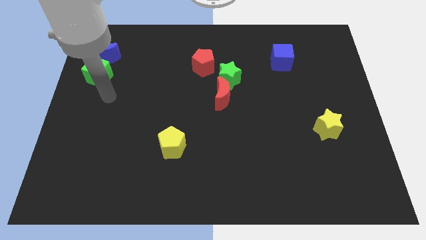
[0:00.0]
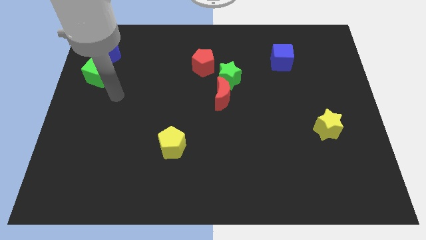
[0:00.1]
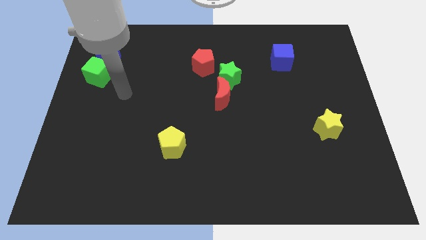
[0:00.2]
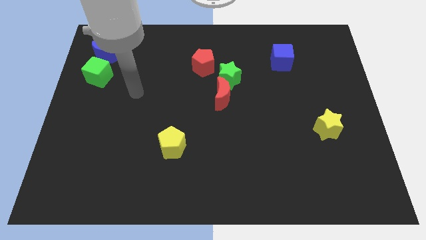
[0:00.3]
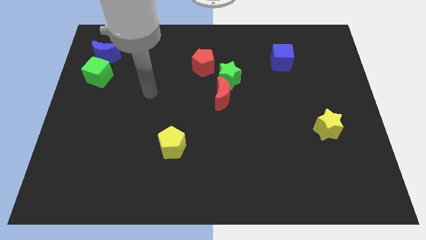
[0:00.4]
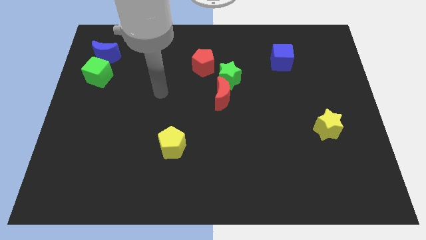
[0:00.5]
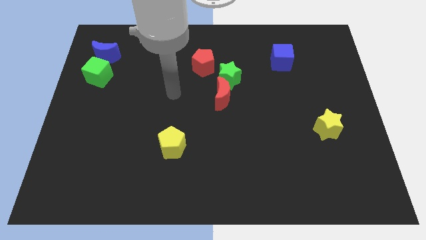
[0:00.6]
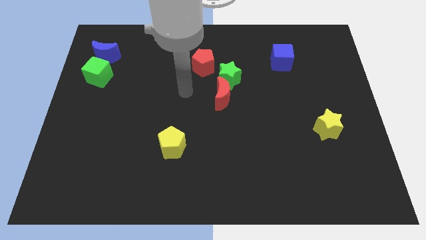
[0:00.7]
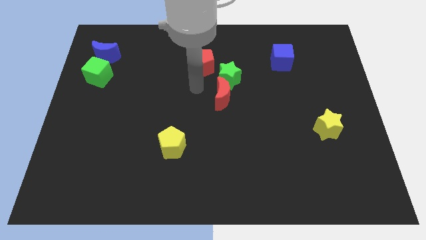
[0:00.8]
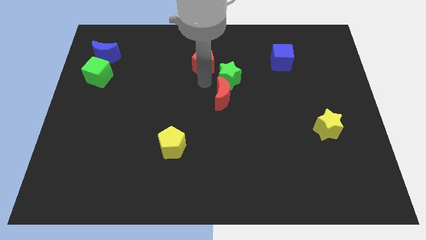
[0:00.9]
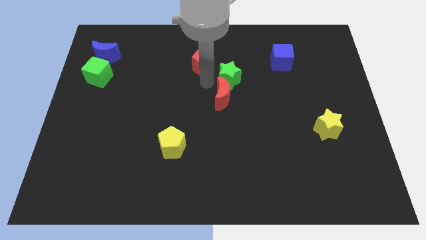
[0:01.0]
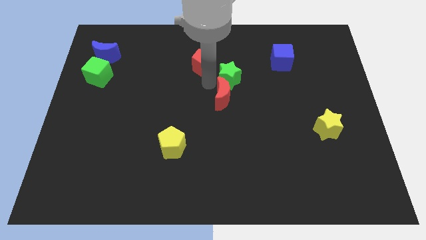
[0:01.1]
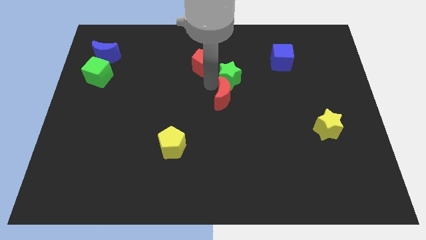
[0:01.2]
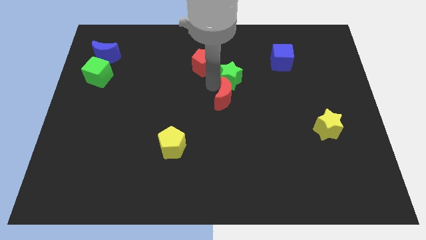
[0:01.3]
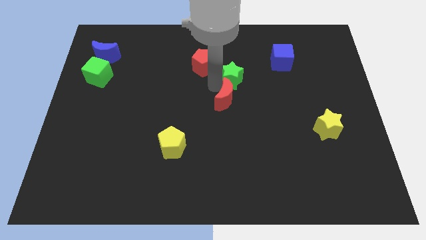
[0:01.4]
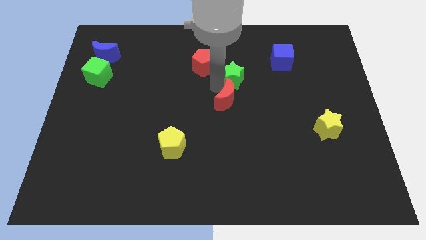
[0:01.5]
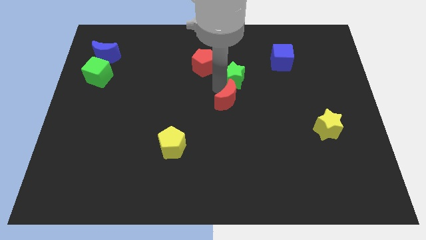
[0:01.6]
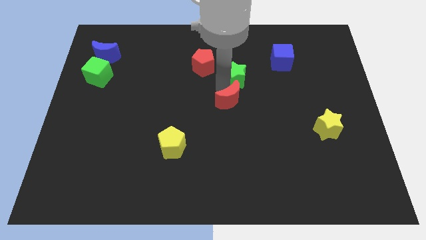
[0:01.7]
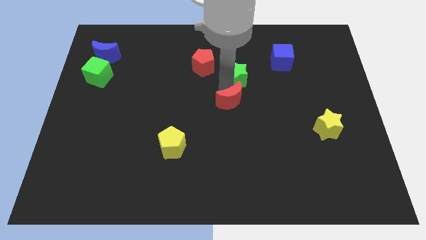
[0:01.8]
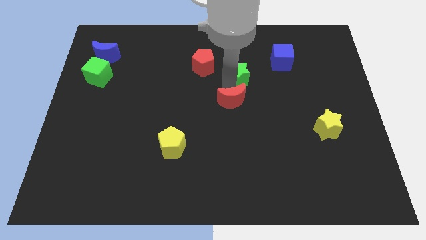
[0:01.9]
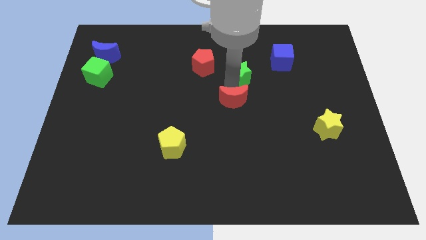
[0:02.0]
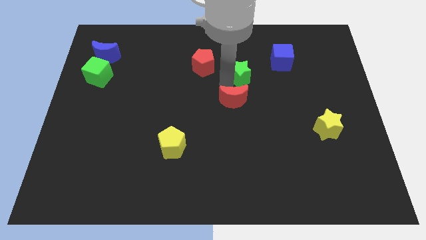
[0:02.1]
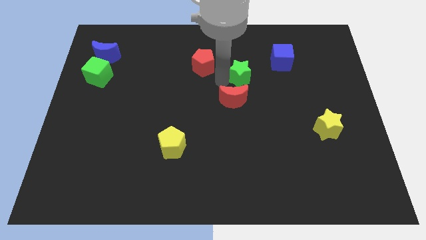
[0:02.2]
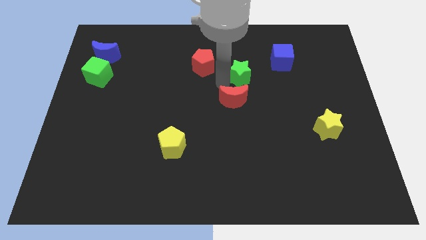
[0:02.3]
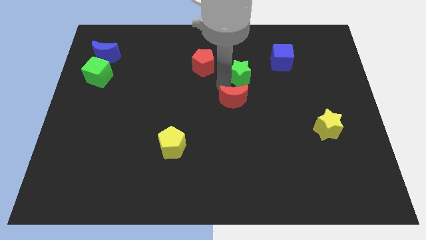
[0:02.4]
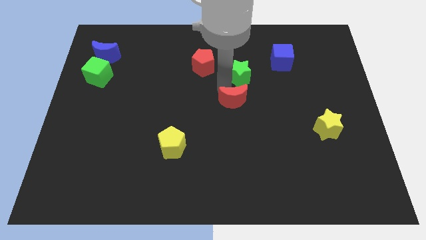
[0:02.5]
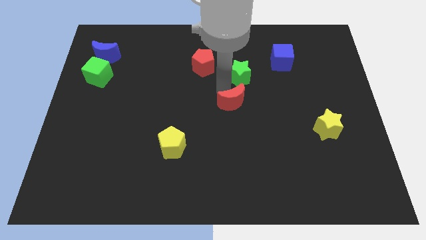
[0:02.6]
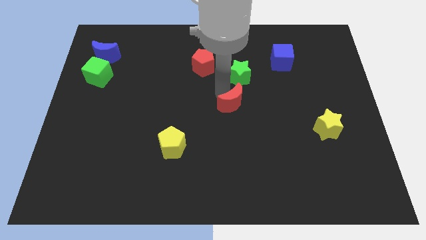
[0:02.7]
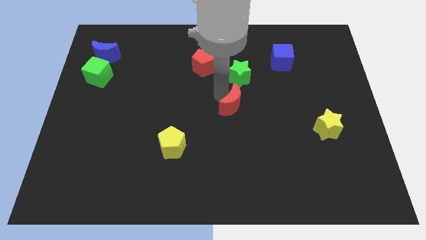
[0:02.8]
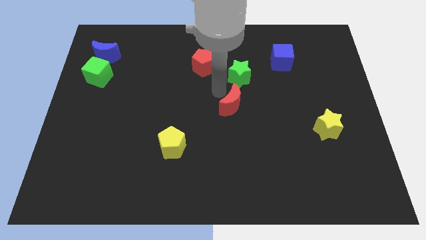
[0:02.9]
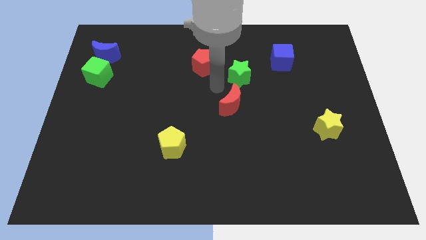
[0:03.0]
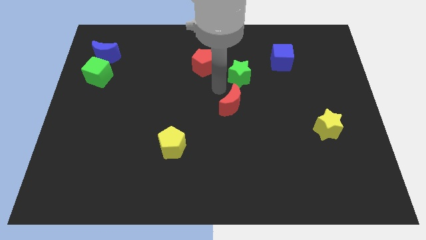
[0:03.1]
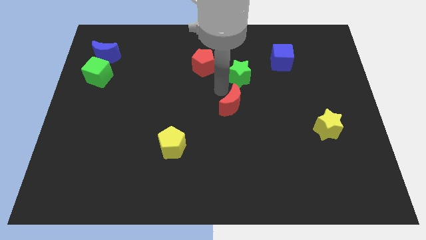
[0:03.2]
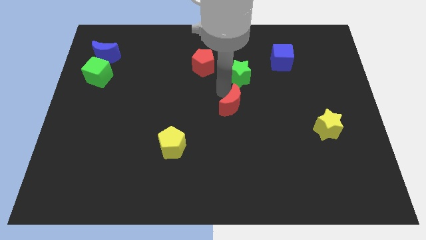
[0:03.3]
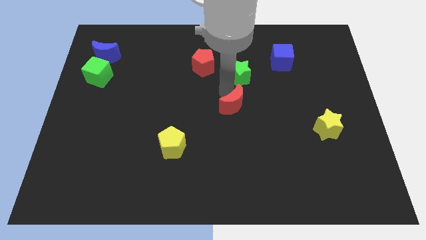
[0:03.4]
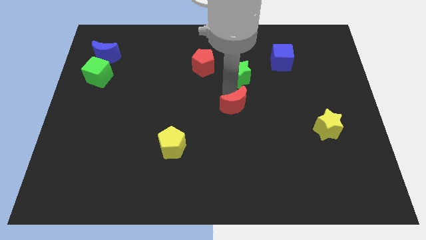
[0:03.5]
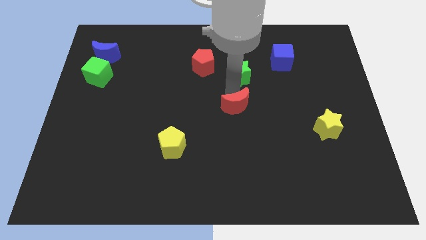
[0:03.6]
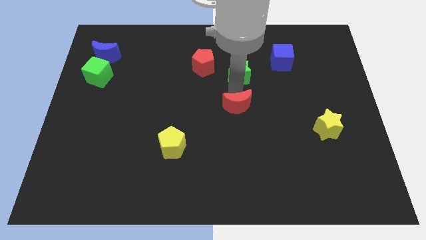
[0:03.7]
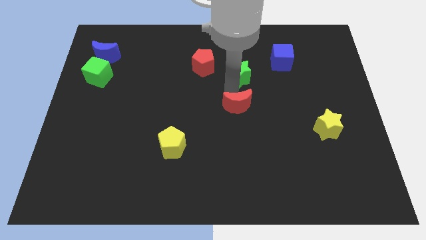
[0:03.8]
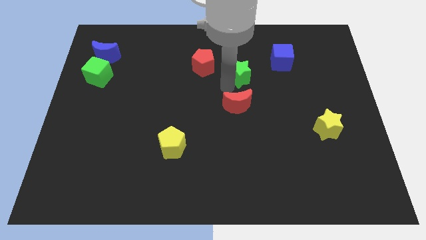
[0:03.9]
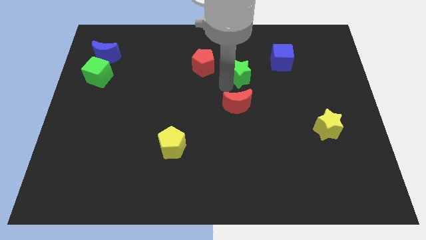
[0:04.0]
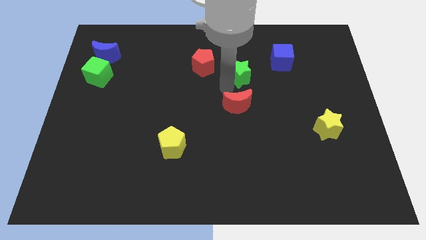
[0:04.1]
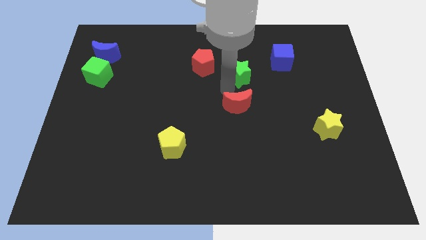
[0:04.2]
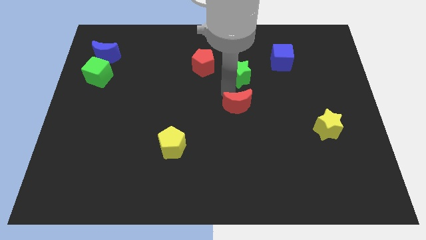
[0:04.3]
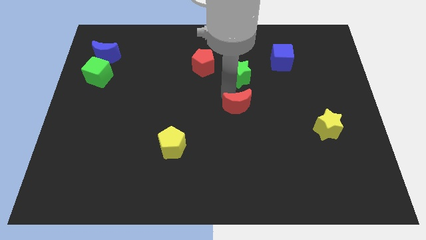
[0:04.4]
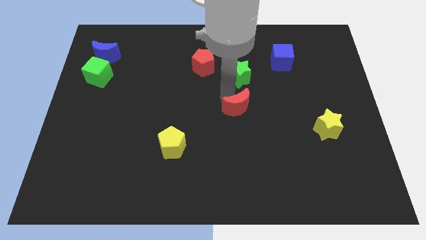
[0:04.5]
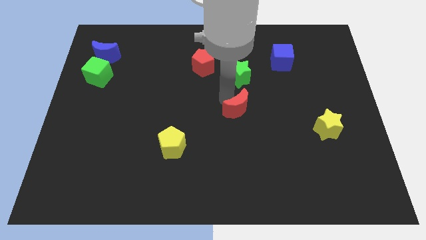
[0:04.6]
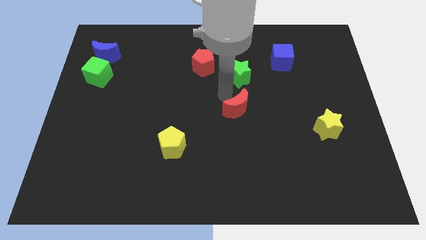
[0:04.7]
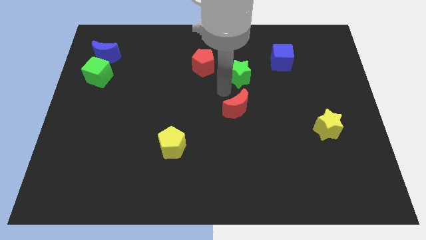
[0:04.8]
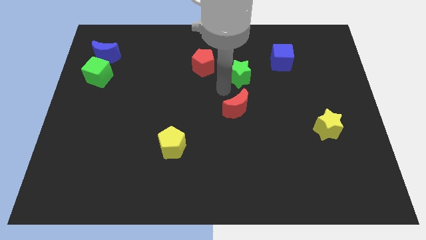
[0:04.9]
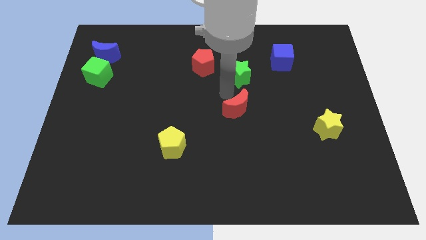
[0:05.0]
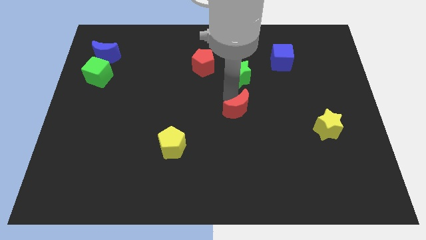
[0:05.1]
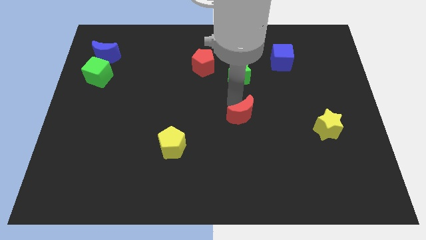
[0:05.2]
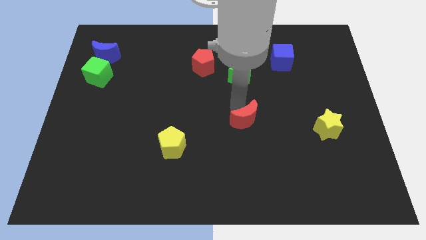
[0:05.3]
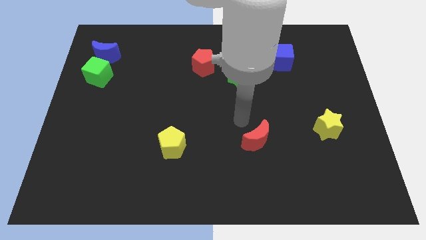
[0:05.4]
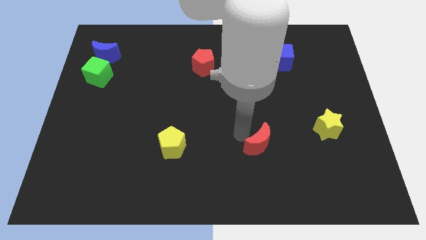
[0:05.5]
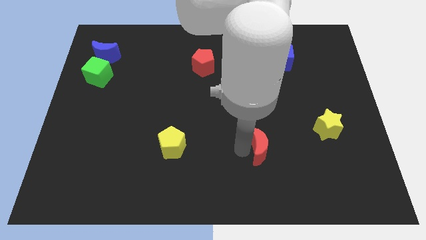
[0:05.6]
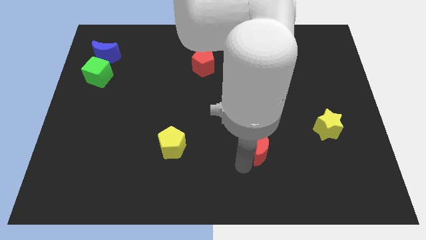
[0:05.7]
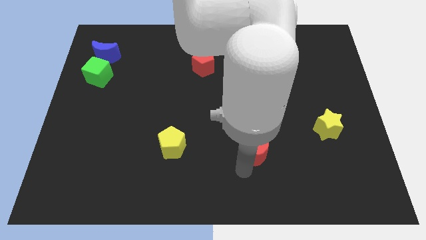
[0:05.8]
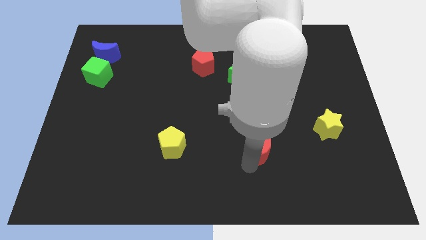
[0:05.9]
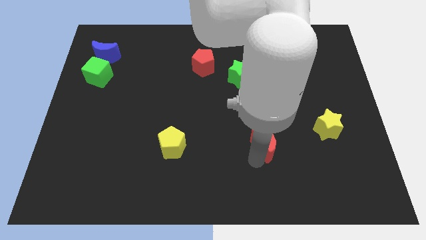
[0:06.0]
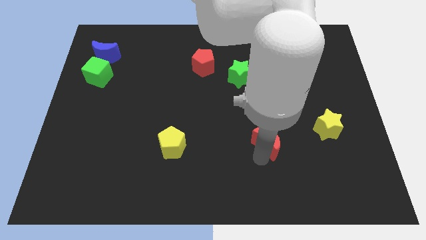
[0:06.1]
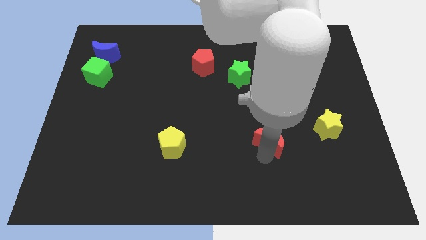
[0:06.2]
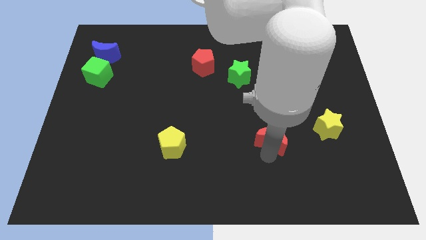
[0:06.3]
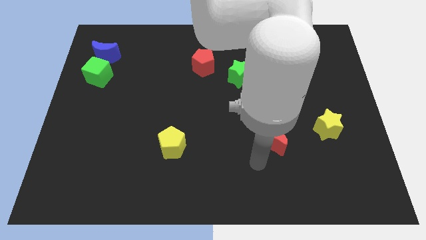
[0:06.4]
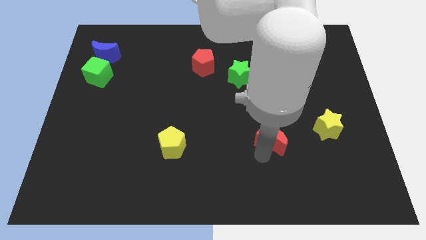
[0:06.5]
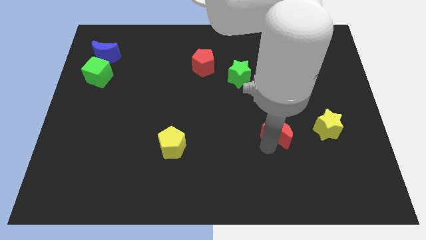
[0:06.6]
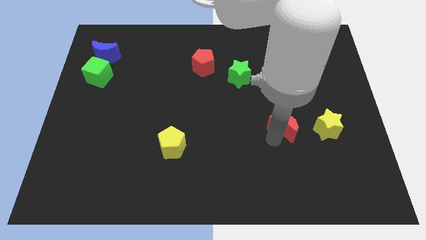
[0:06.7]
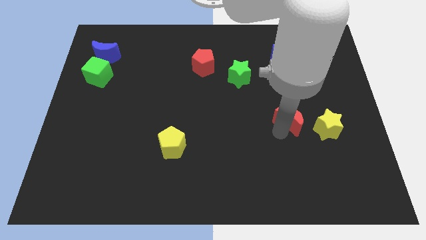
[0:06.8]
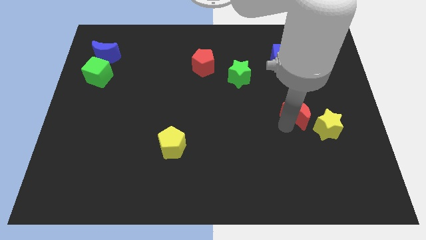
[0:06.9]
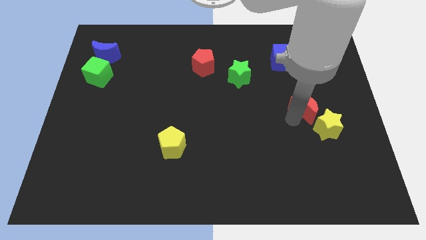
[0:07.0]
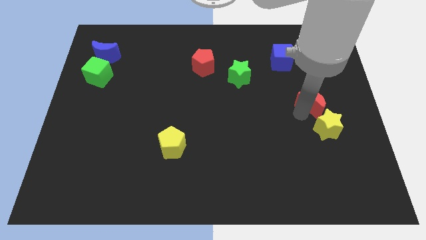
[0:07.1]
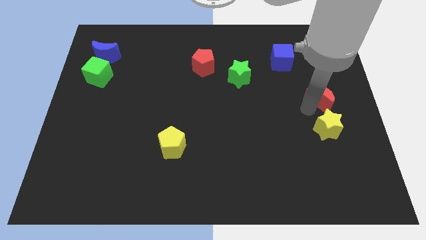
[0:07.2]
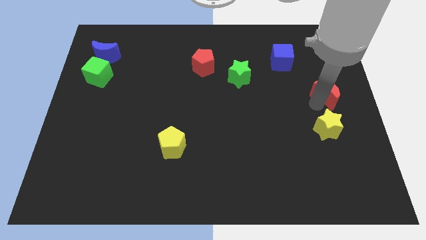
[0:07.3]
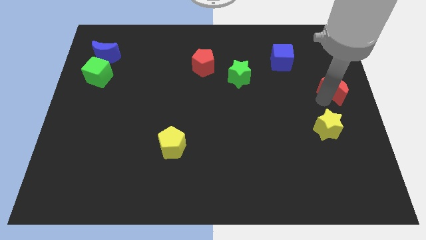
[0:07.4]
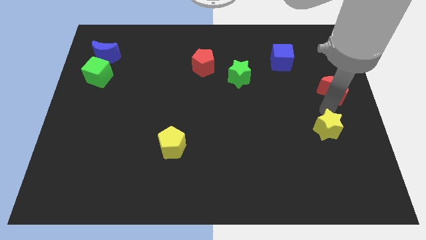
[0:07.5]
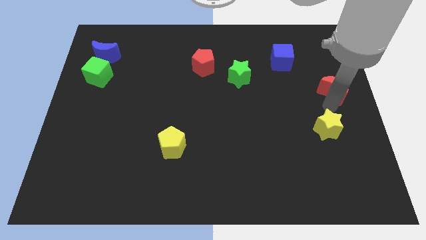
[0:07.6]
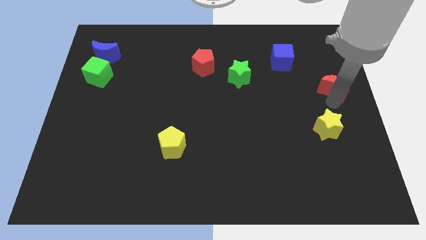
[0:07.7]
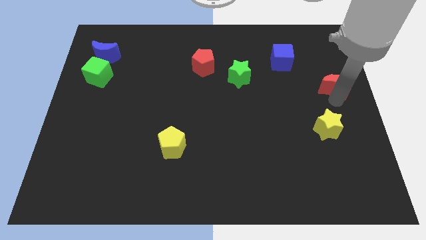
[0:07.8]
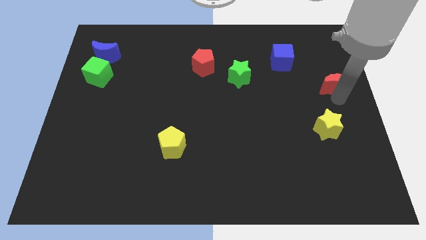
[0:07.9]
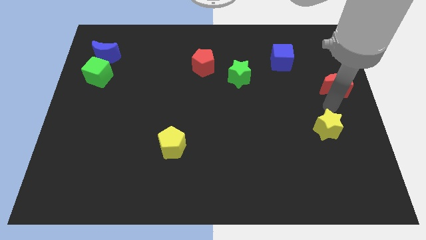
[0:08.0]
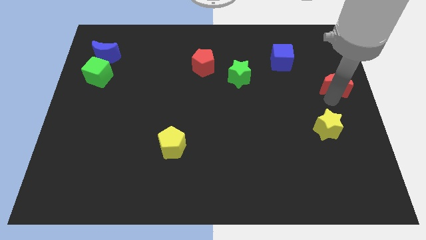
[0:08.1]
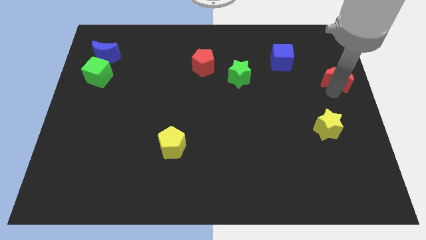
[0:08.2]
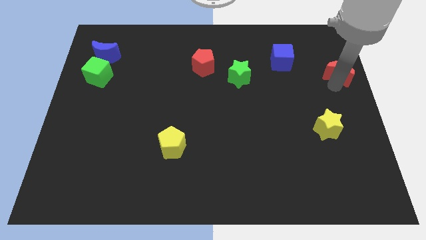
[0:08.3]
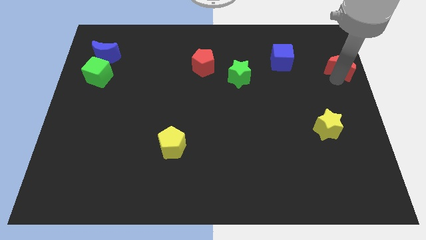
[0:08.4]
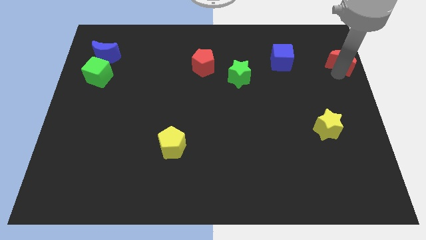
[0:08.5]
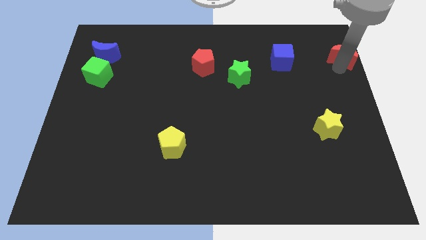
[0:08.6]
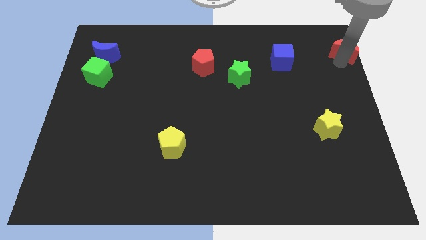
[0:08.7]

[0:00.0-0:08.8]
put the red moon to the top right
